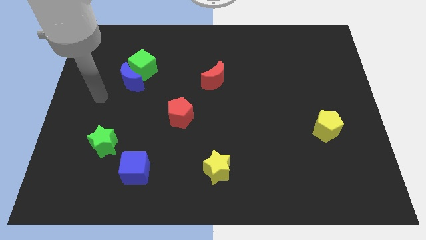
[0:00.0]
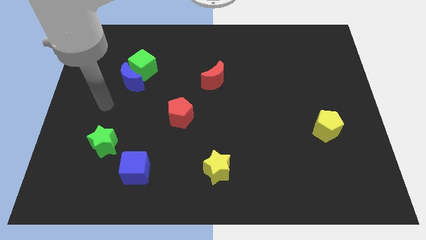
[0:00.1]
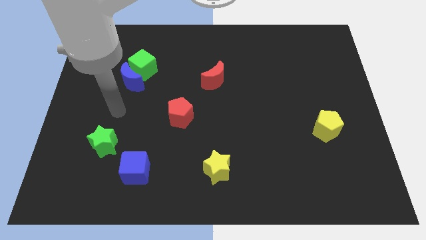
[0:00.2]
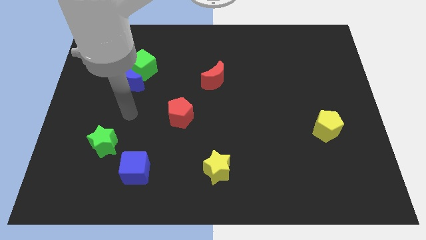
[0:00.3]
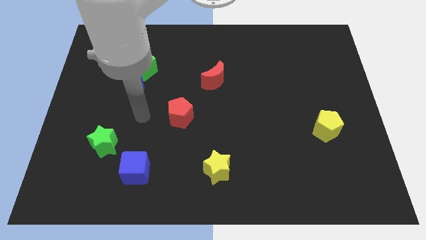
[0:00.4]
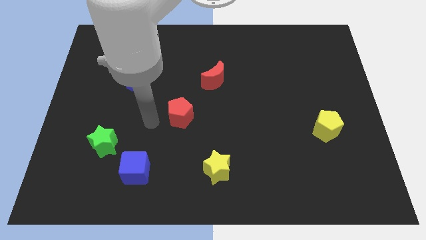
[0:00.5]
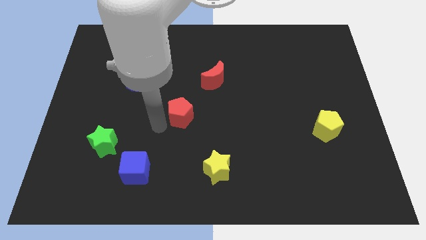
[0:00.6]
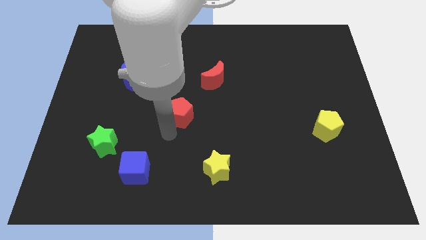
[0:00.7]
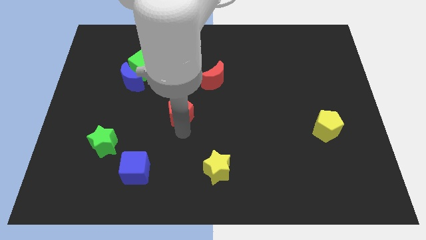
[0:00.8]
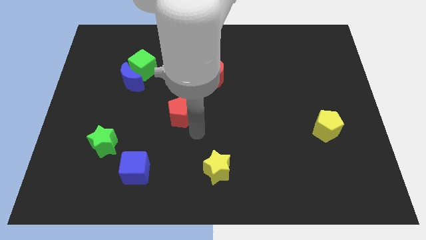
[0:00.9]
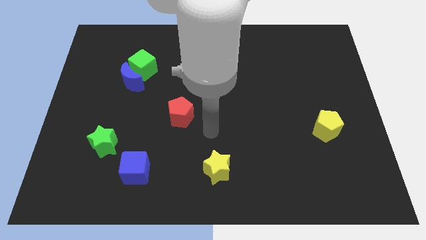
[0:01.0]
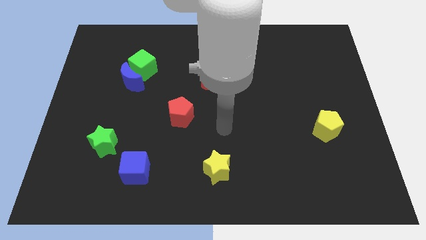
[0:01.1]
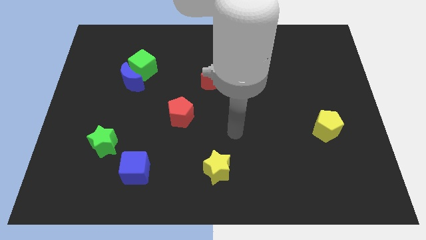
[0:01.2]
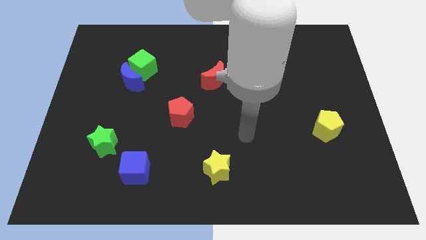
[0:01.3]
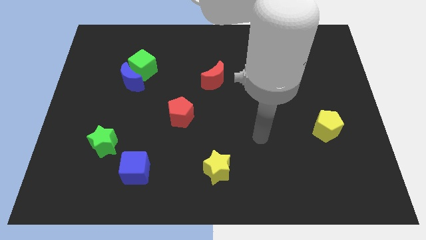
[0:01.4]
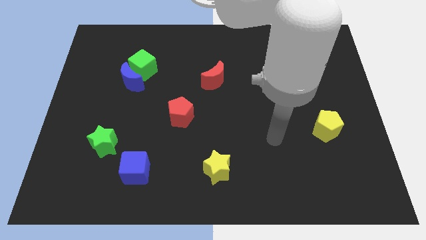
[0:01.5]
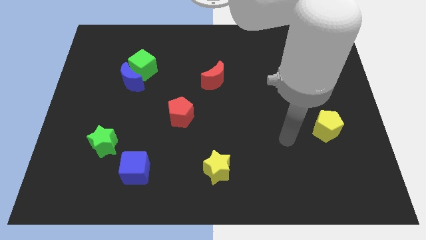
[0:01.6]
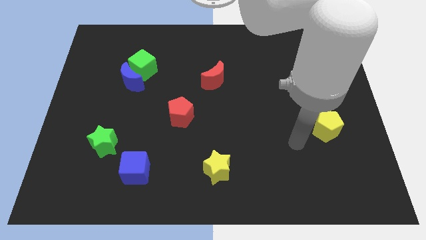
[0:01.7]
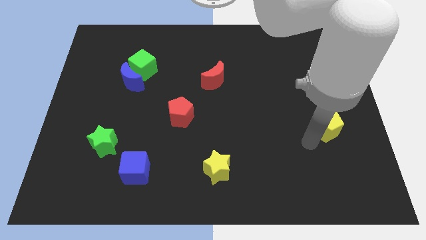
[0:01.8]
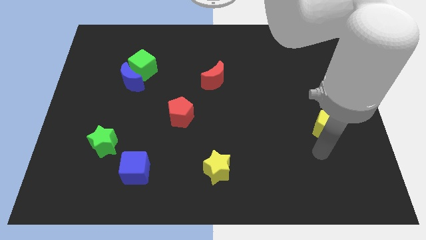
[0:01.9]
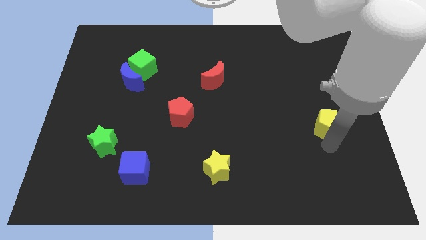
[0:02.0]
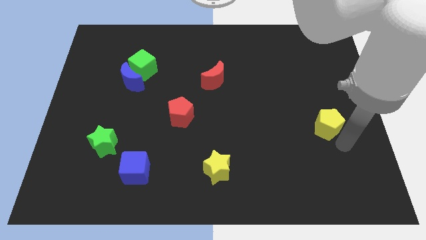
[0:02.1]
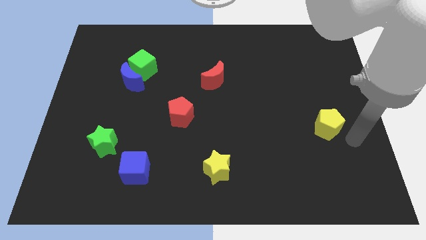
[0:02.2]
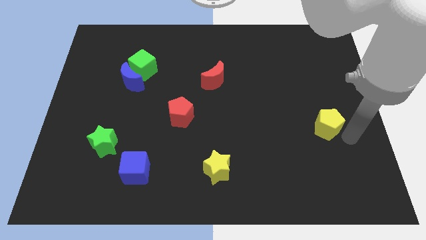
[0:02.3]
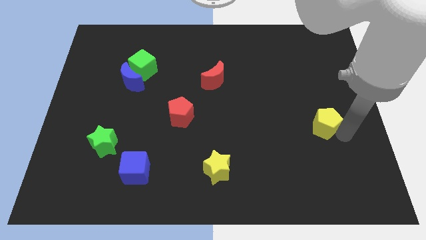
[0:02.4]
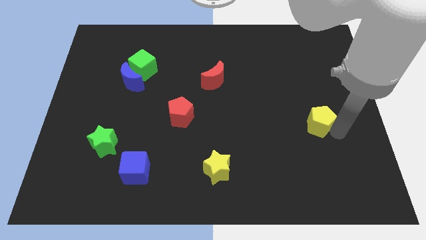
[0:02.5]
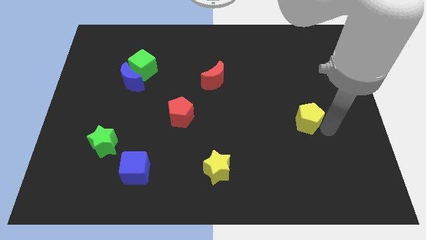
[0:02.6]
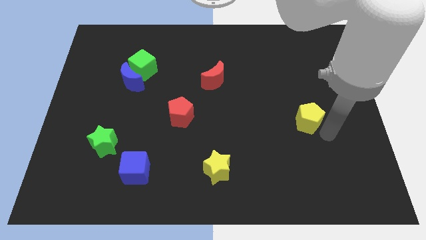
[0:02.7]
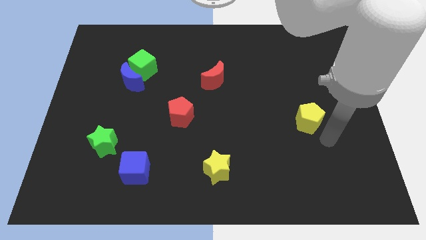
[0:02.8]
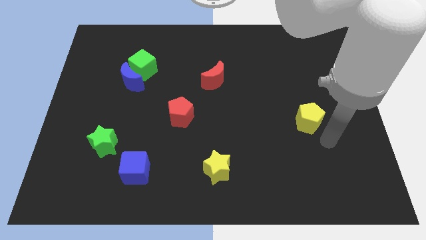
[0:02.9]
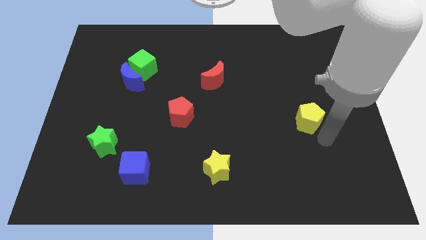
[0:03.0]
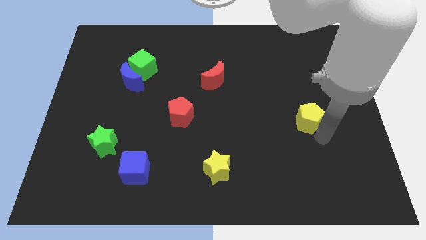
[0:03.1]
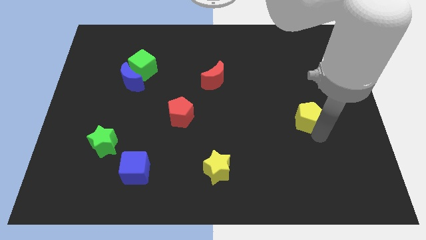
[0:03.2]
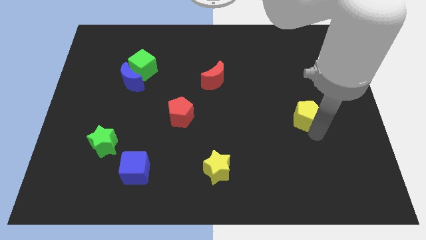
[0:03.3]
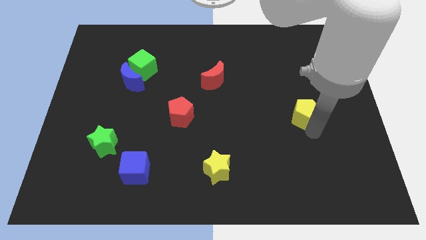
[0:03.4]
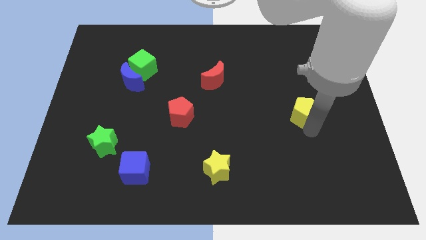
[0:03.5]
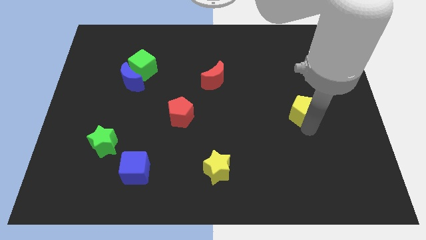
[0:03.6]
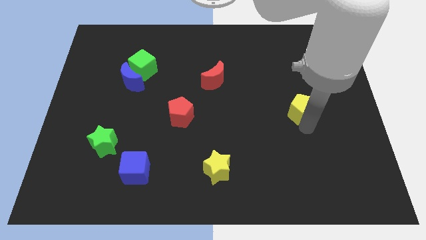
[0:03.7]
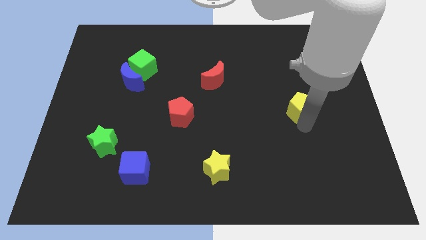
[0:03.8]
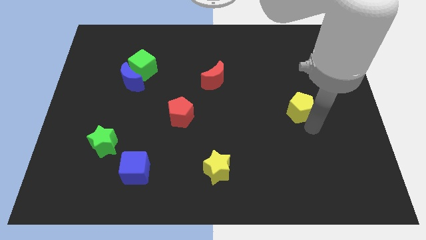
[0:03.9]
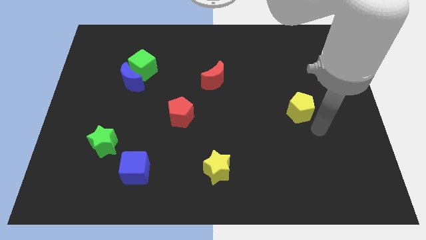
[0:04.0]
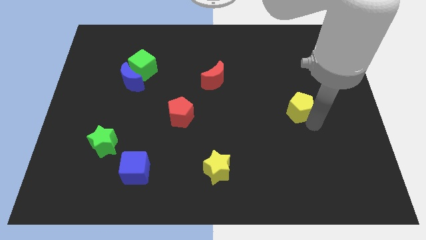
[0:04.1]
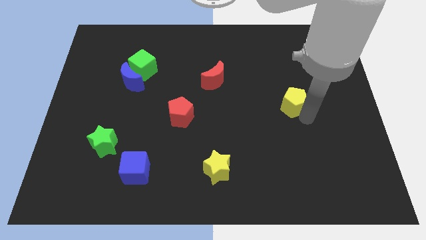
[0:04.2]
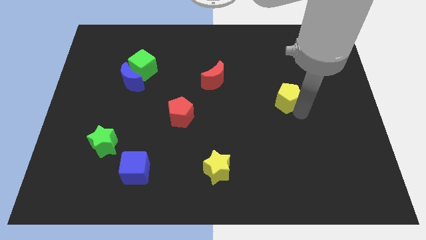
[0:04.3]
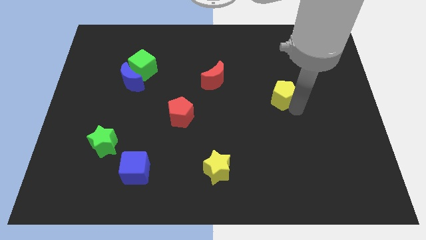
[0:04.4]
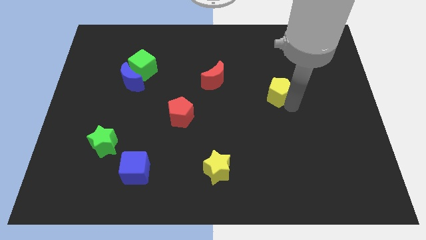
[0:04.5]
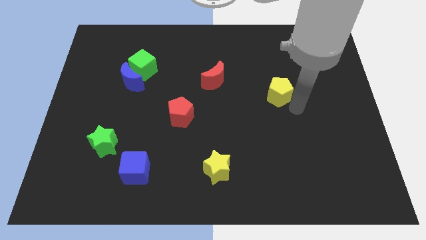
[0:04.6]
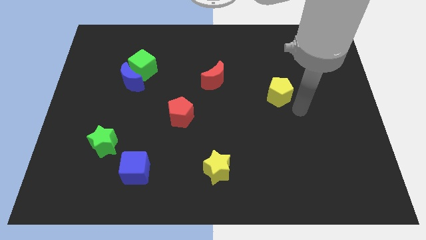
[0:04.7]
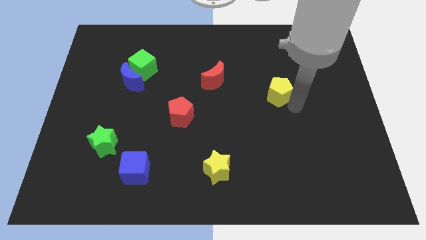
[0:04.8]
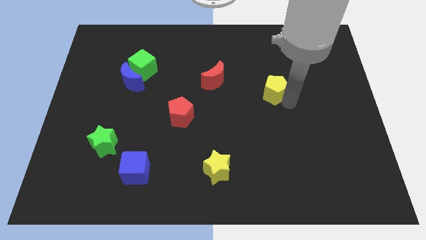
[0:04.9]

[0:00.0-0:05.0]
move the yellow pentagon just right of the red moon

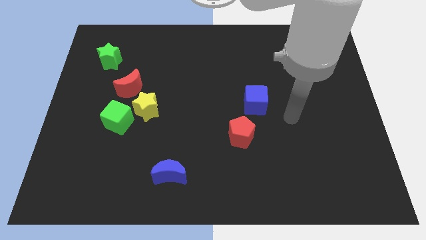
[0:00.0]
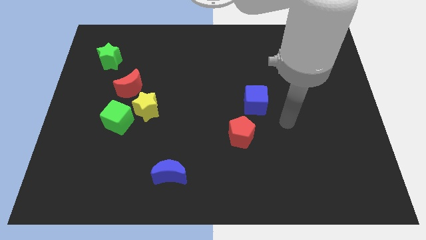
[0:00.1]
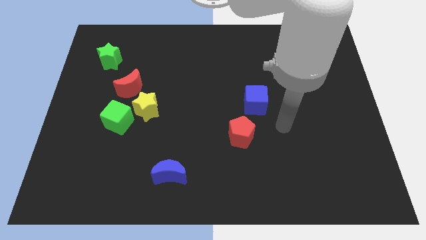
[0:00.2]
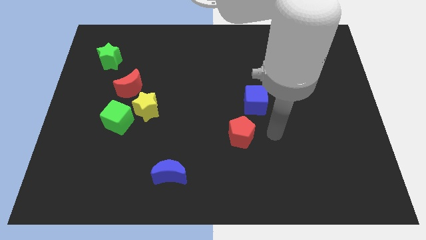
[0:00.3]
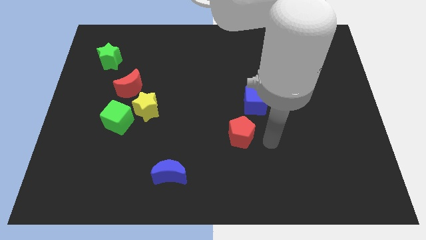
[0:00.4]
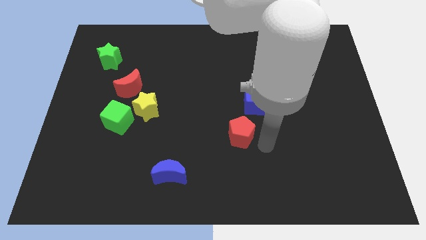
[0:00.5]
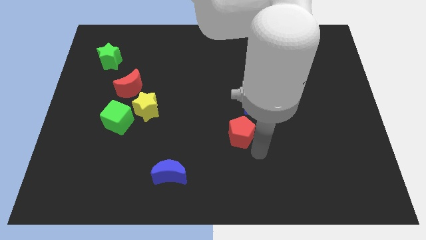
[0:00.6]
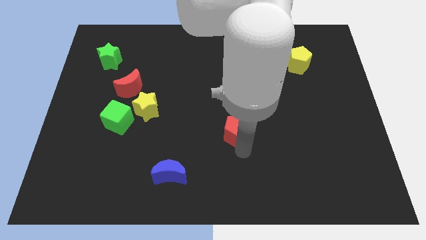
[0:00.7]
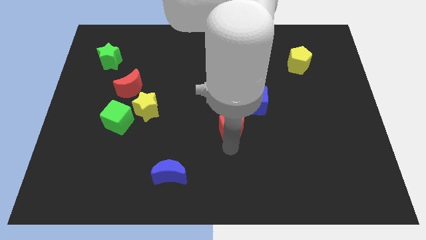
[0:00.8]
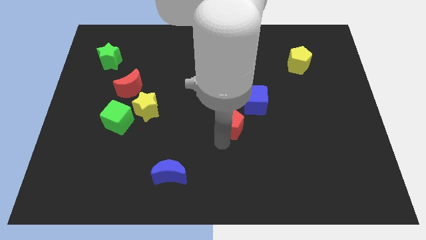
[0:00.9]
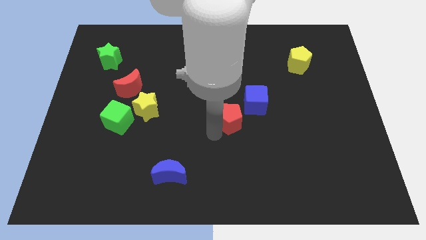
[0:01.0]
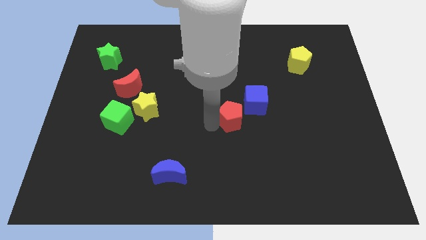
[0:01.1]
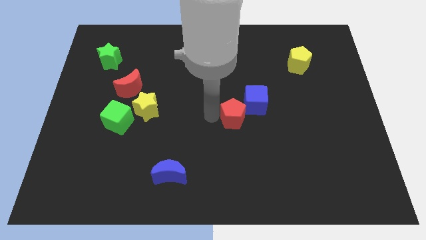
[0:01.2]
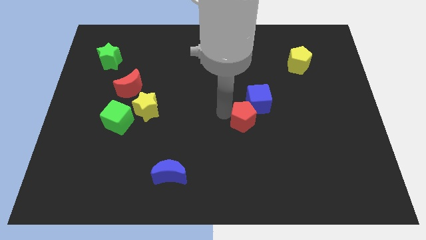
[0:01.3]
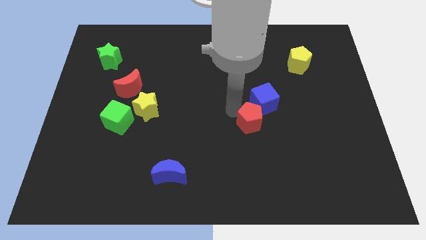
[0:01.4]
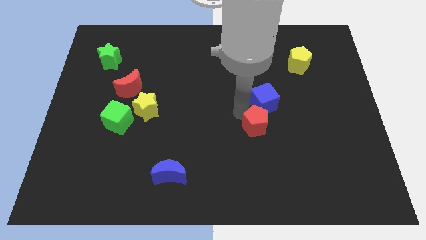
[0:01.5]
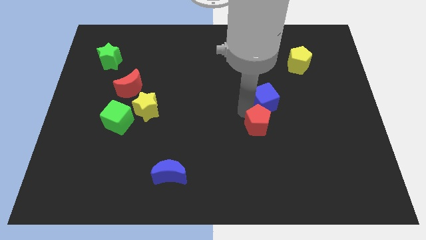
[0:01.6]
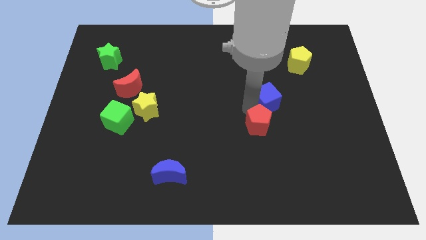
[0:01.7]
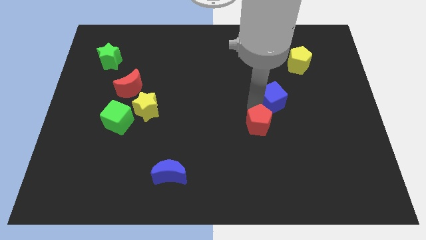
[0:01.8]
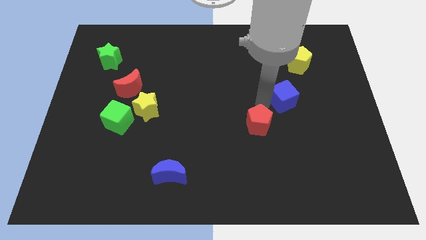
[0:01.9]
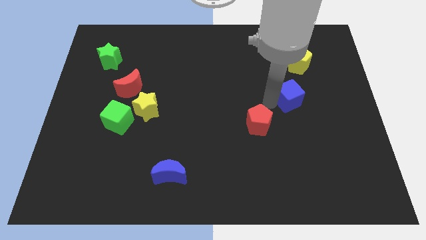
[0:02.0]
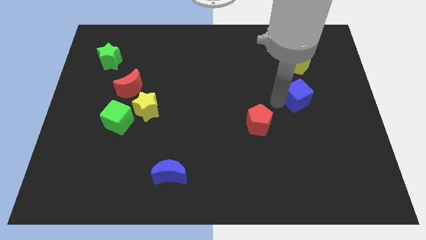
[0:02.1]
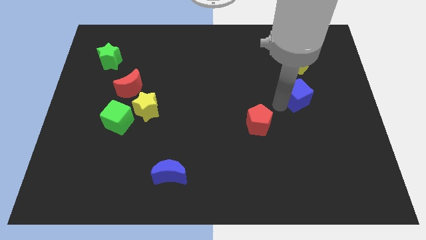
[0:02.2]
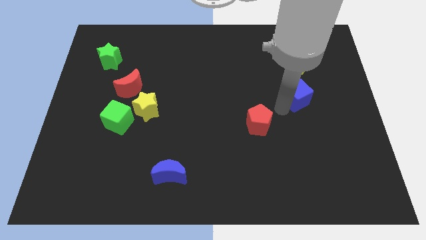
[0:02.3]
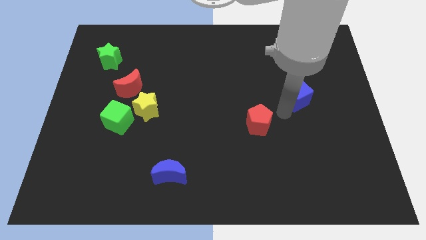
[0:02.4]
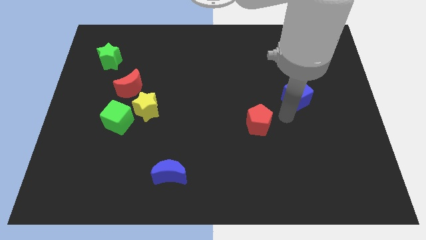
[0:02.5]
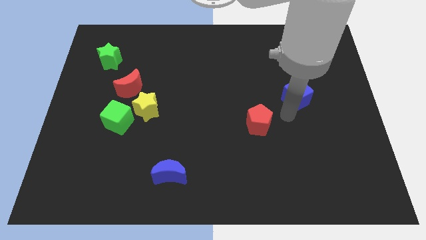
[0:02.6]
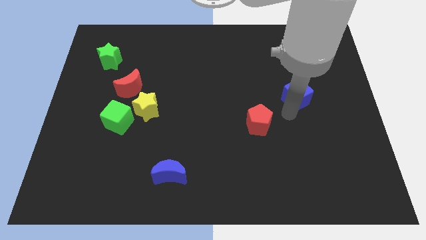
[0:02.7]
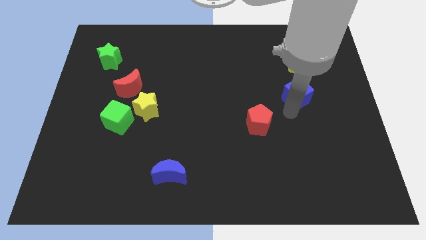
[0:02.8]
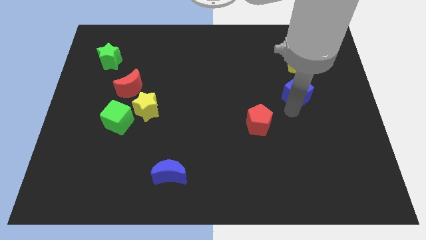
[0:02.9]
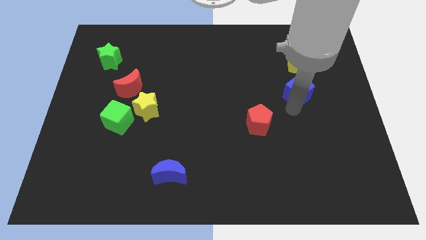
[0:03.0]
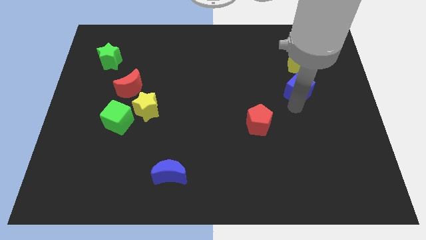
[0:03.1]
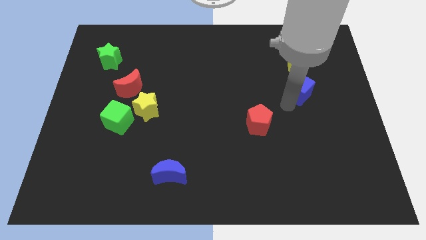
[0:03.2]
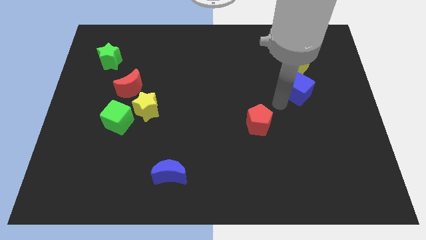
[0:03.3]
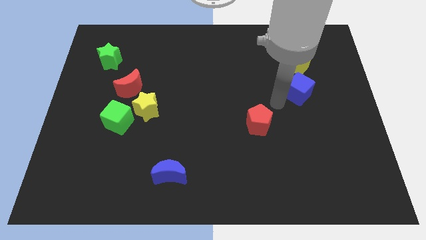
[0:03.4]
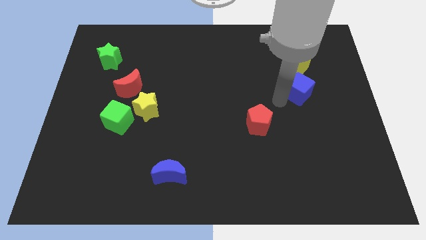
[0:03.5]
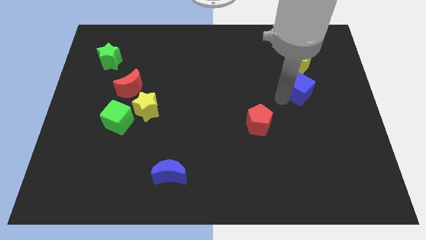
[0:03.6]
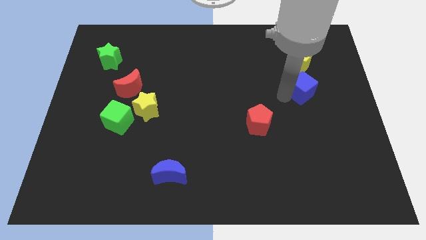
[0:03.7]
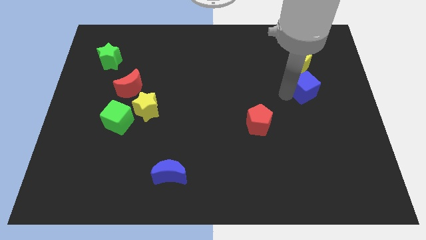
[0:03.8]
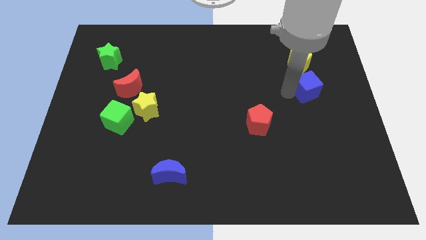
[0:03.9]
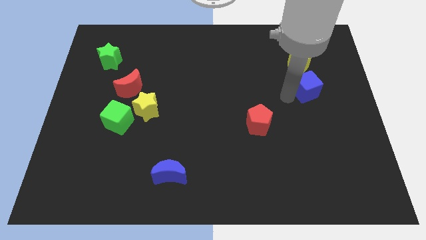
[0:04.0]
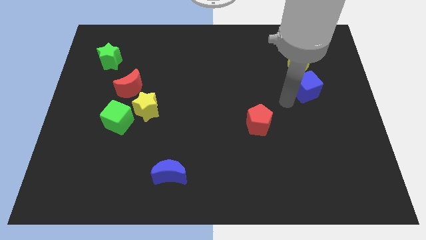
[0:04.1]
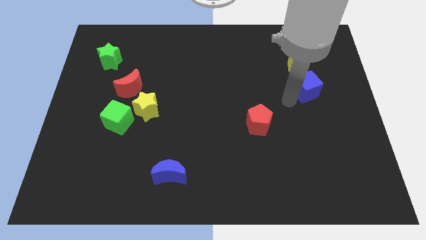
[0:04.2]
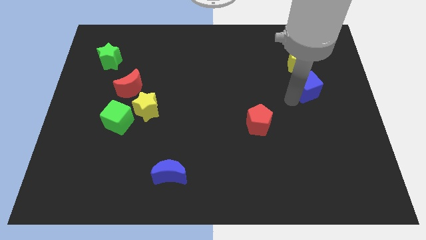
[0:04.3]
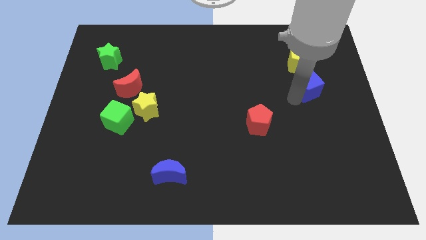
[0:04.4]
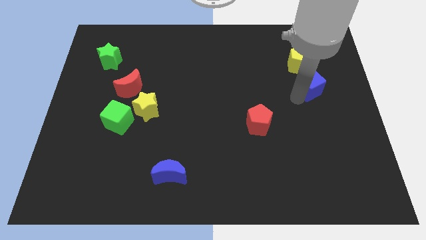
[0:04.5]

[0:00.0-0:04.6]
push the blue cube to the bottom right of the yellow pentagon
